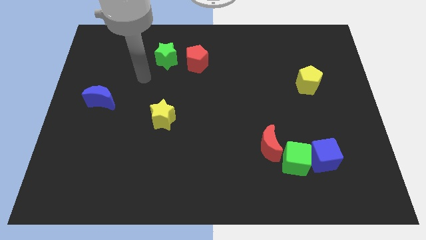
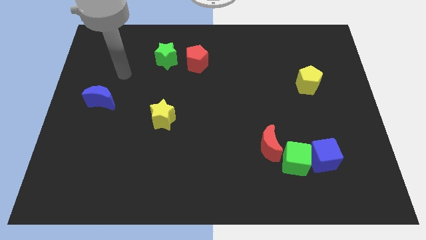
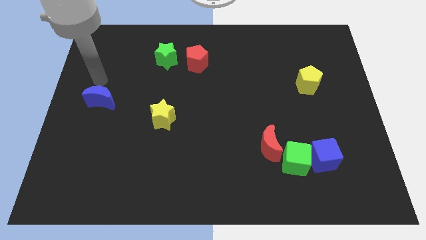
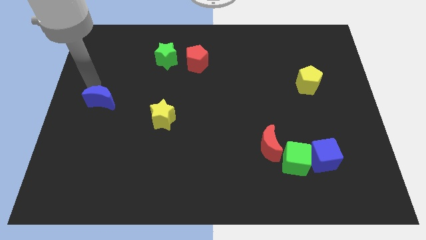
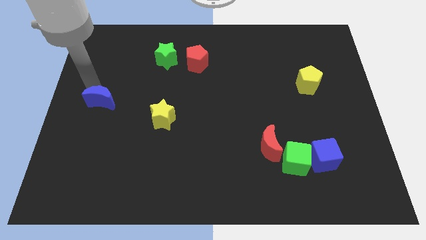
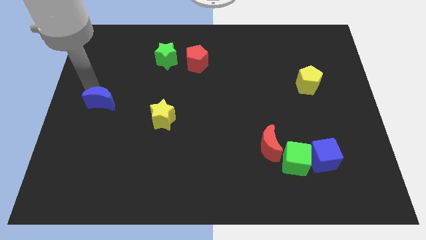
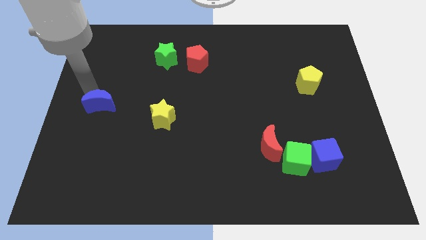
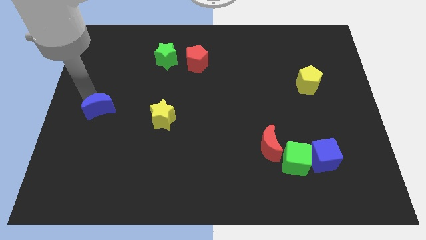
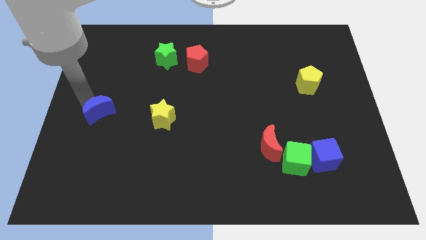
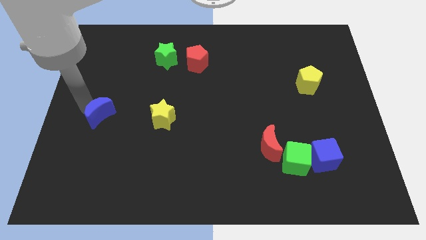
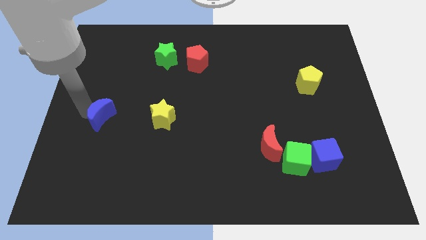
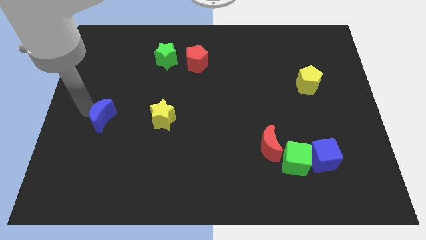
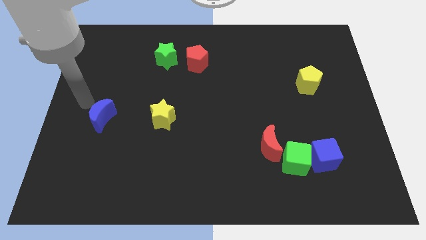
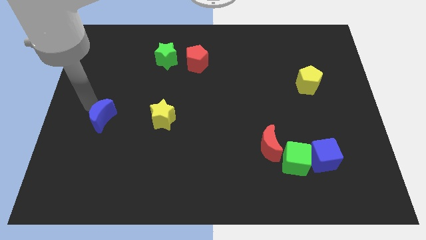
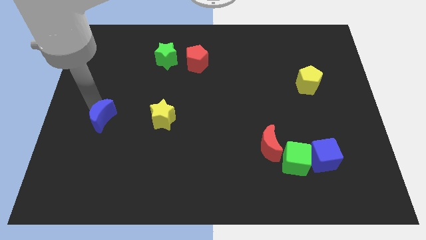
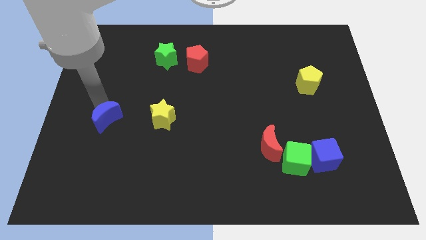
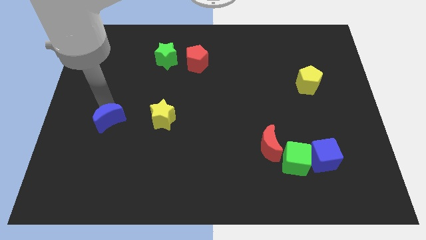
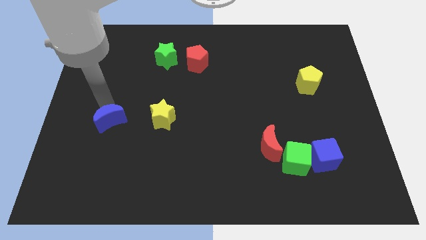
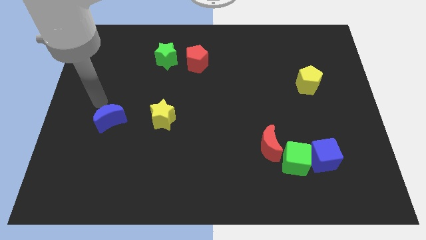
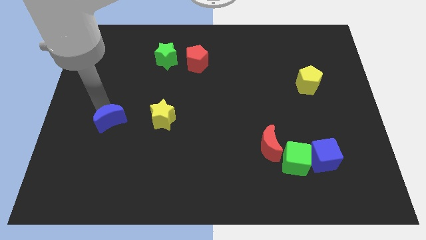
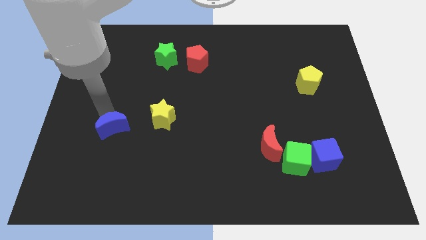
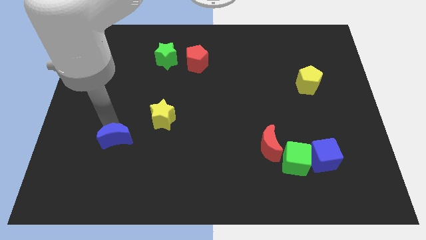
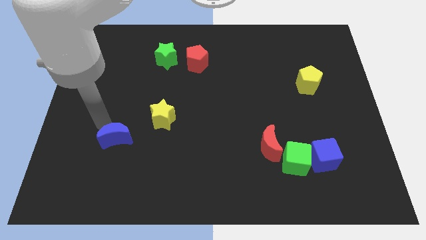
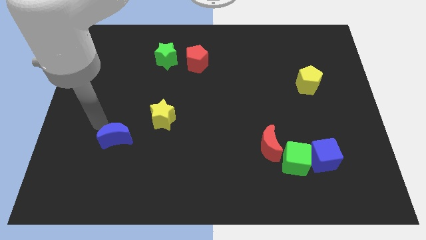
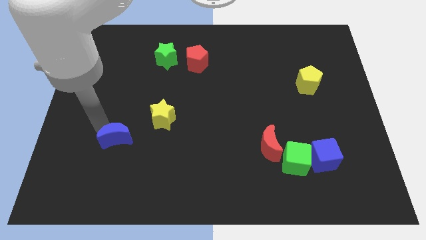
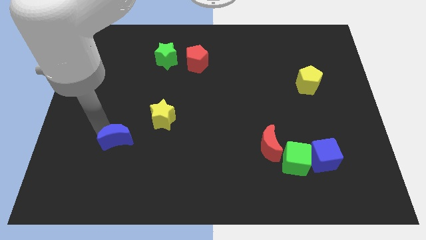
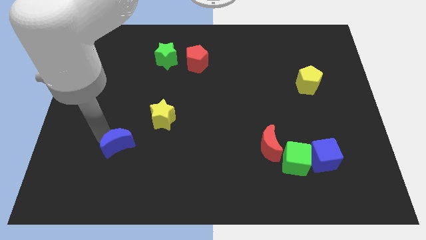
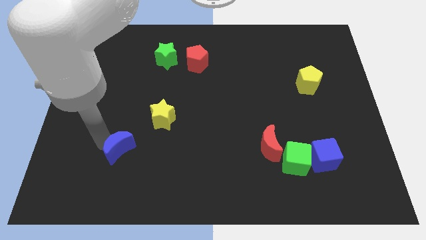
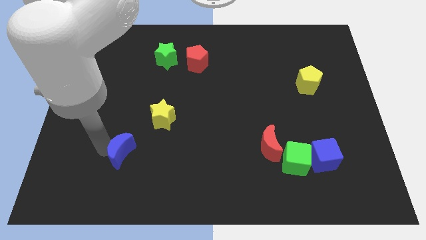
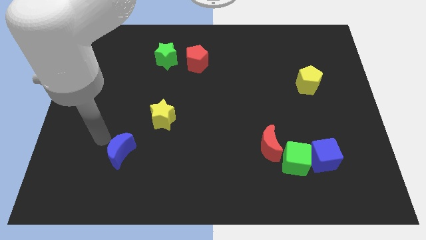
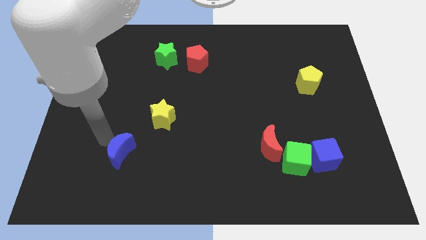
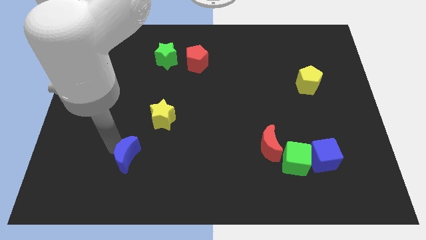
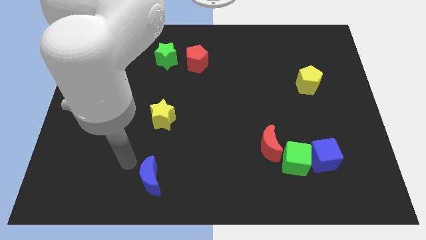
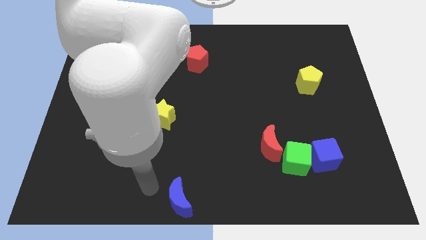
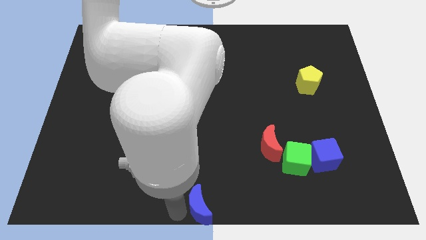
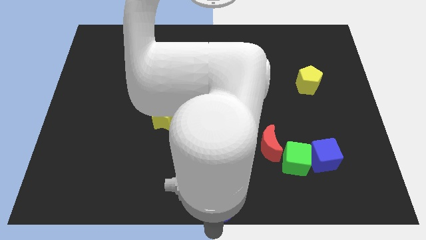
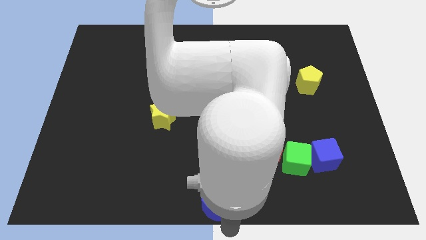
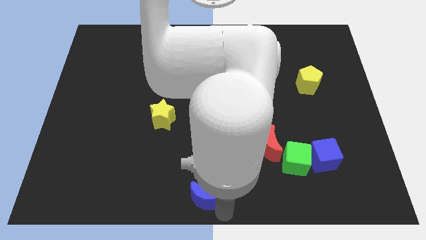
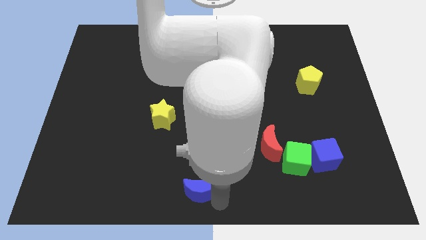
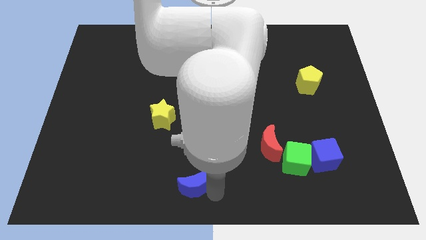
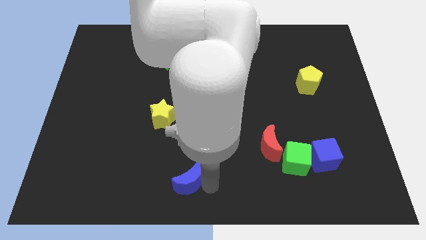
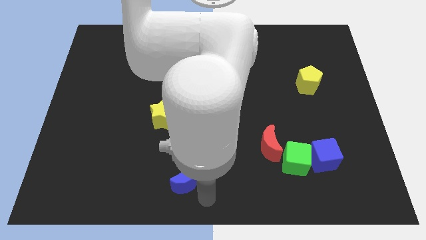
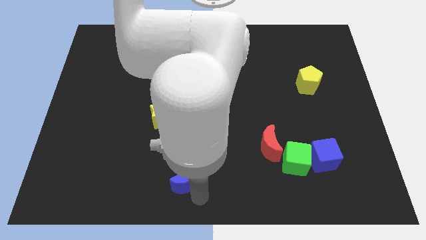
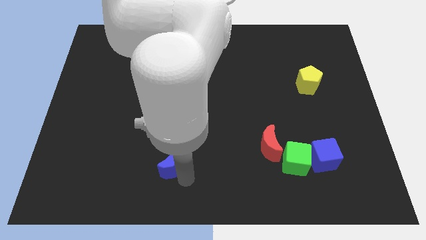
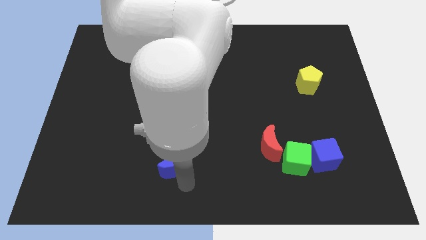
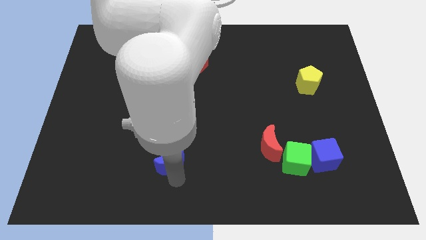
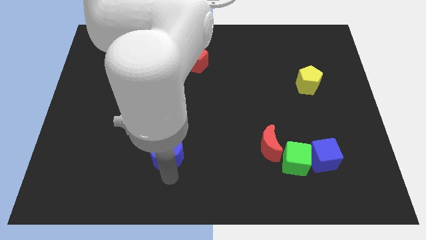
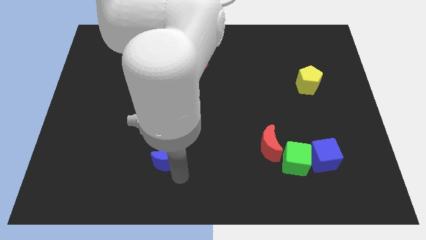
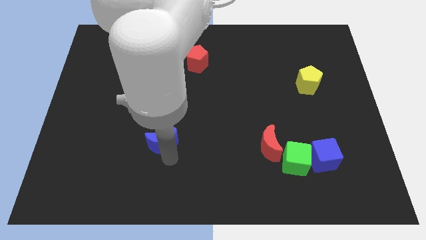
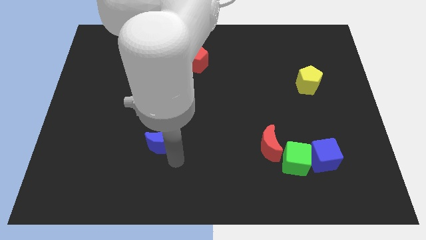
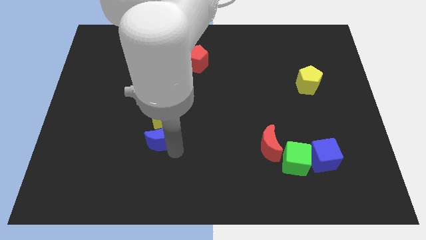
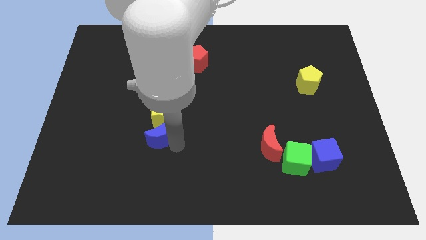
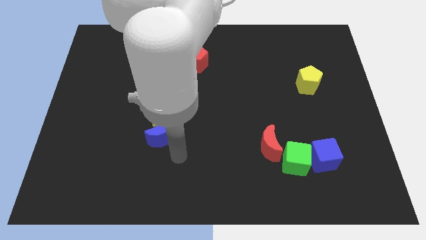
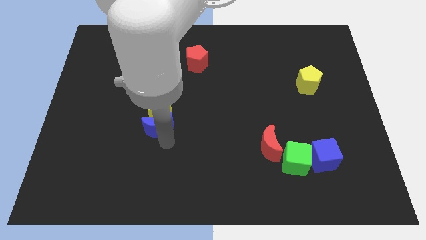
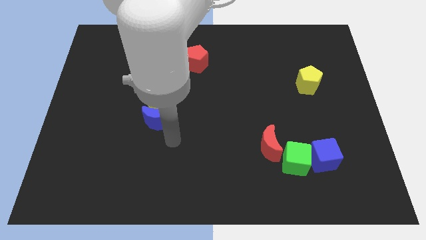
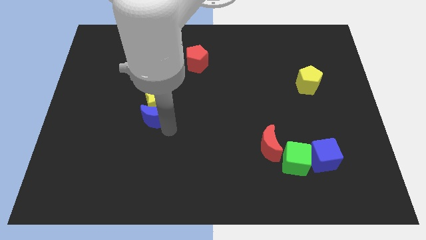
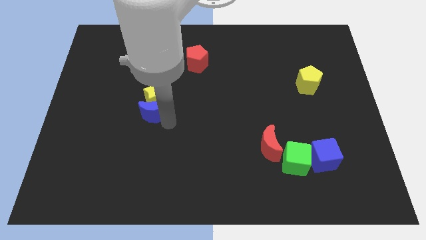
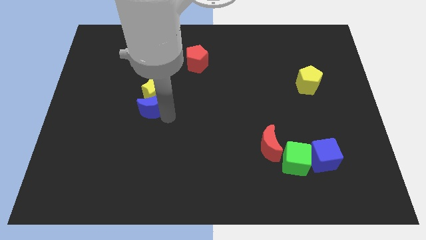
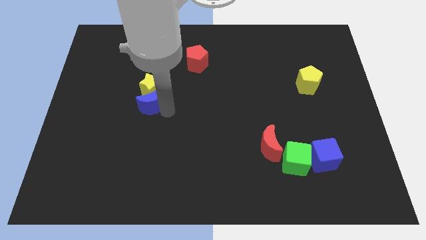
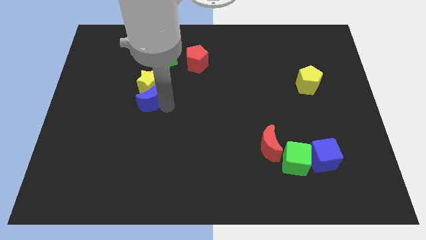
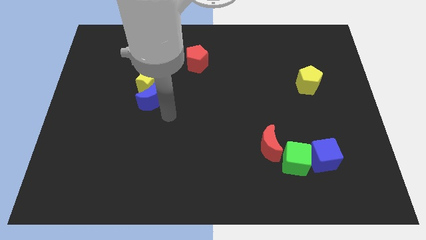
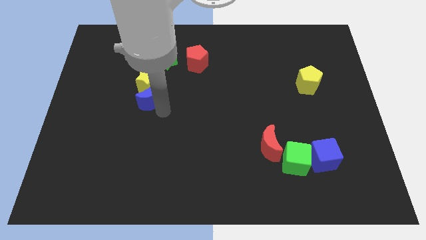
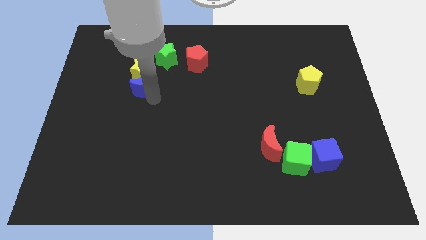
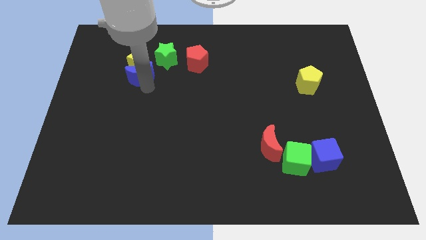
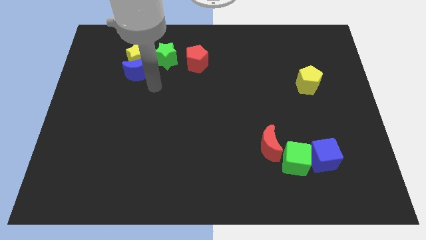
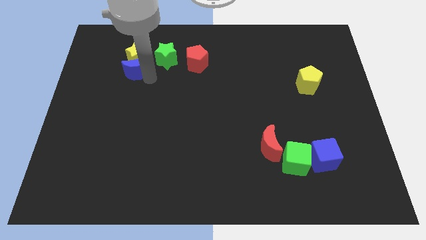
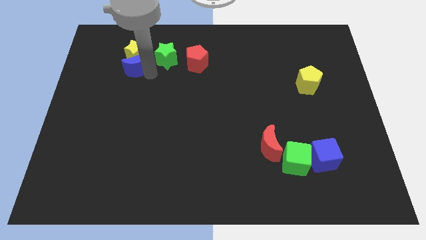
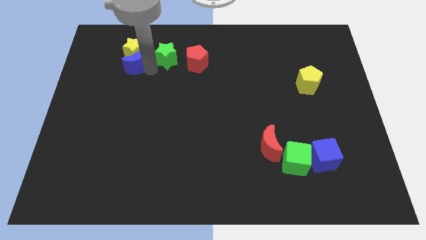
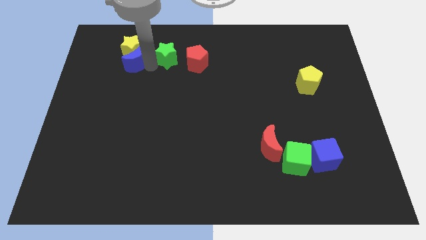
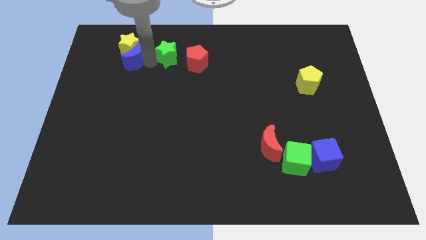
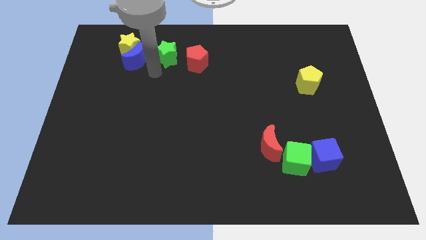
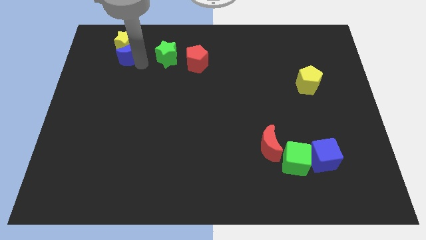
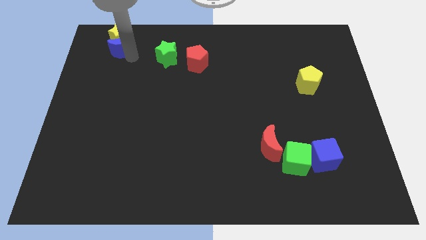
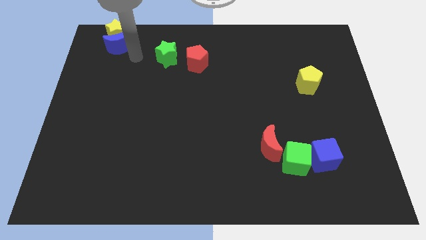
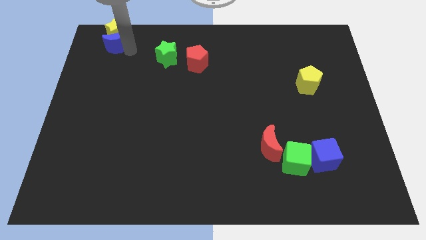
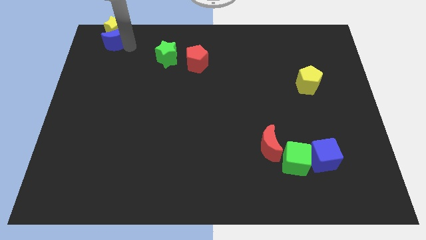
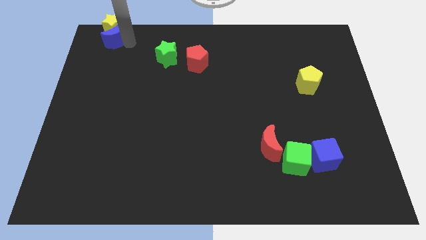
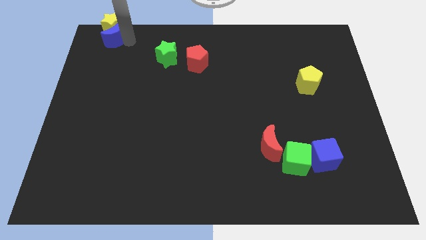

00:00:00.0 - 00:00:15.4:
push the blue moon to the upper left corner
